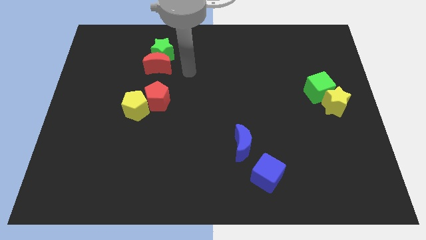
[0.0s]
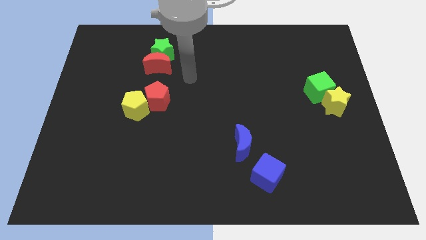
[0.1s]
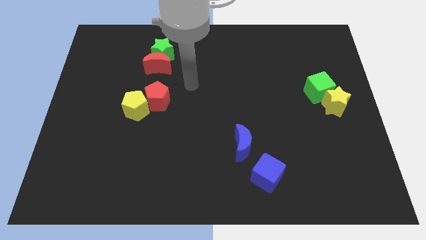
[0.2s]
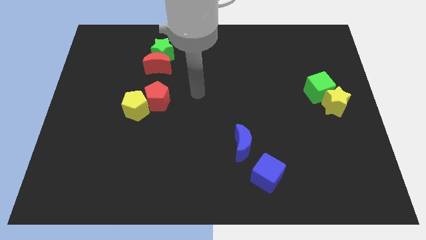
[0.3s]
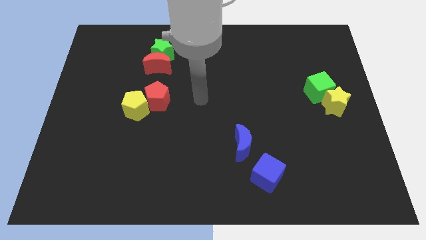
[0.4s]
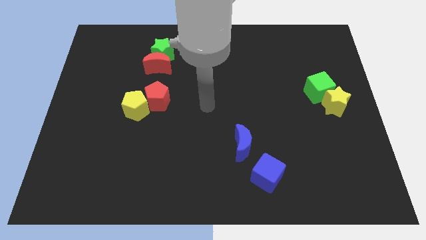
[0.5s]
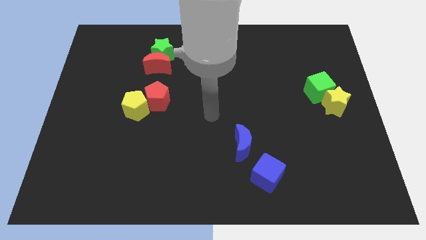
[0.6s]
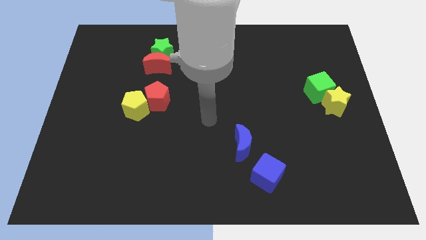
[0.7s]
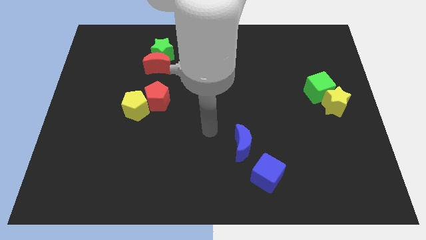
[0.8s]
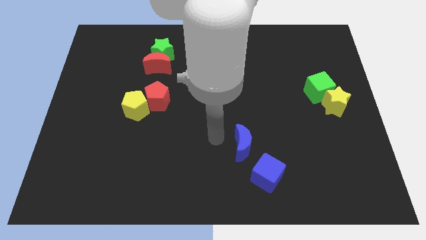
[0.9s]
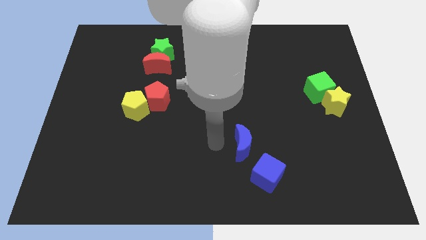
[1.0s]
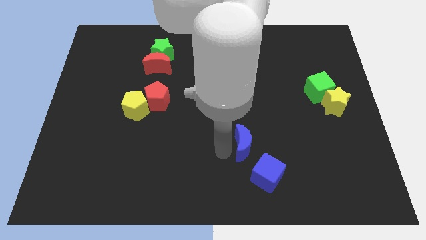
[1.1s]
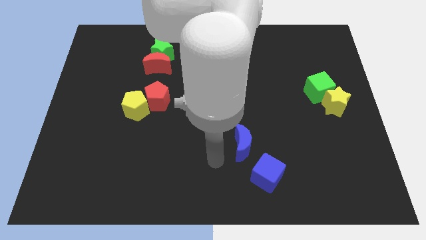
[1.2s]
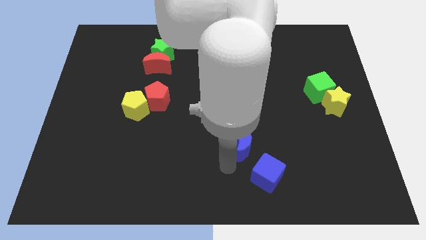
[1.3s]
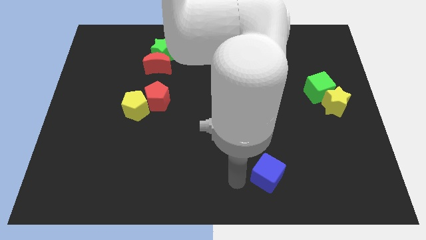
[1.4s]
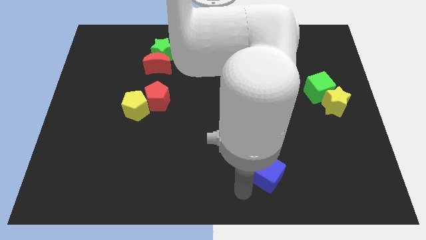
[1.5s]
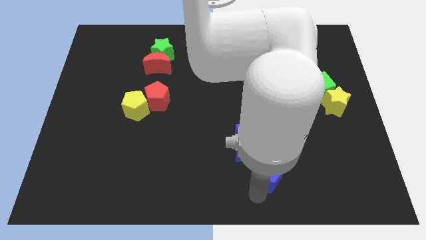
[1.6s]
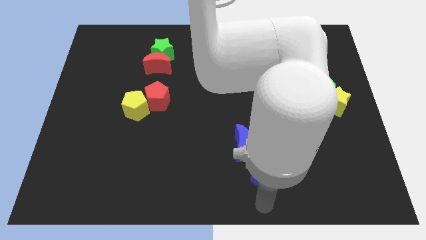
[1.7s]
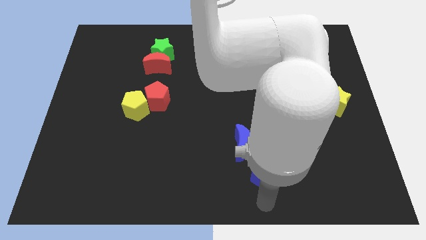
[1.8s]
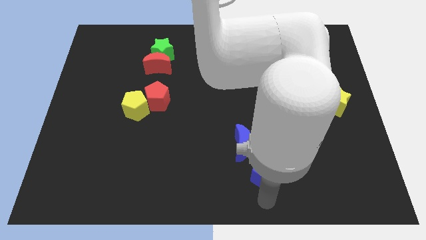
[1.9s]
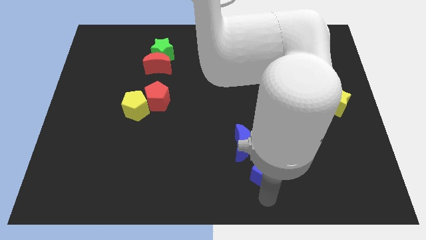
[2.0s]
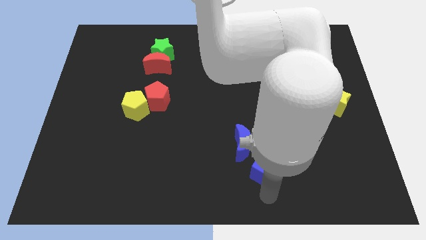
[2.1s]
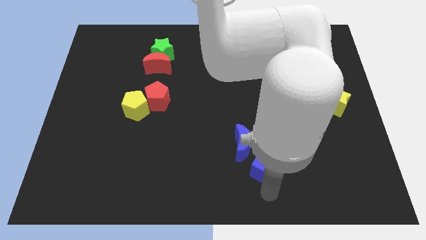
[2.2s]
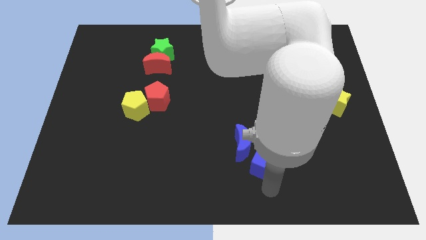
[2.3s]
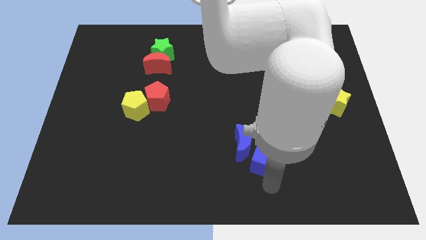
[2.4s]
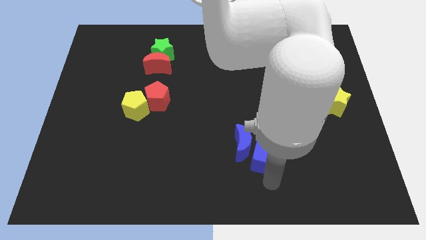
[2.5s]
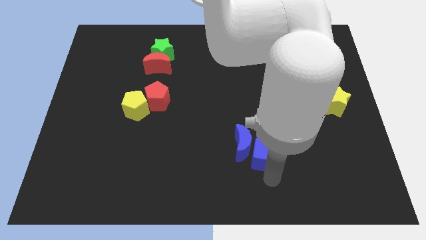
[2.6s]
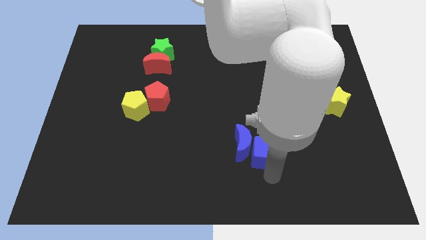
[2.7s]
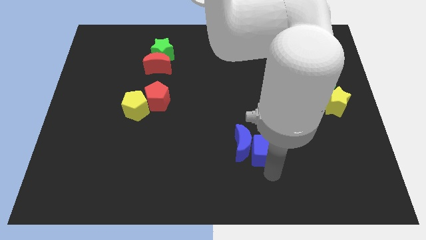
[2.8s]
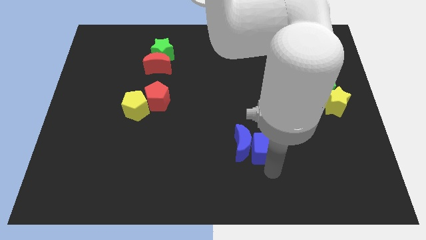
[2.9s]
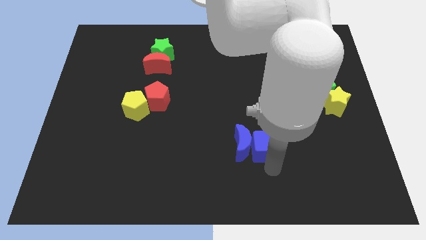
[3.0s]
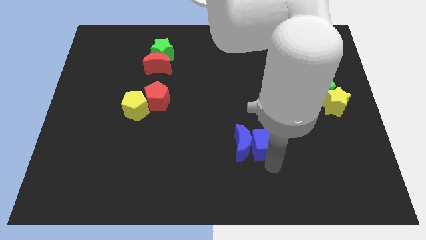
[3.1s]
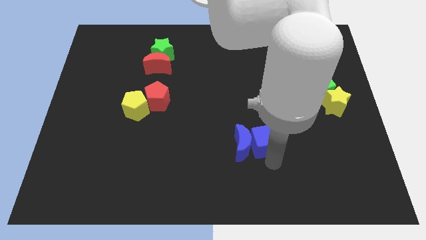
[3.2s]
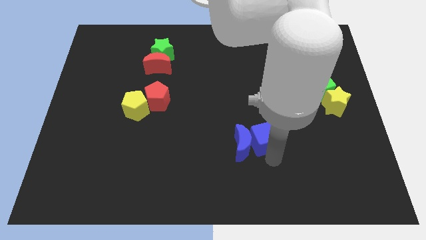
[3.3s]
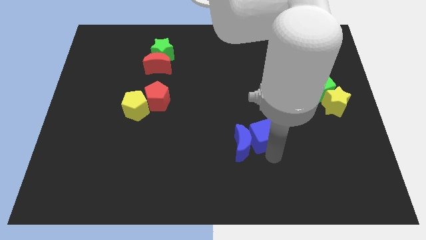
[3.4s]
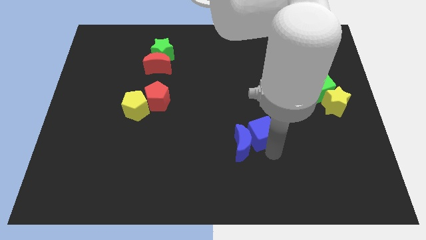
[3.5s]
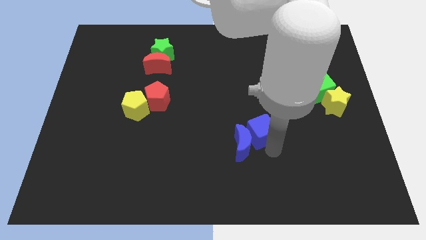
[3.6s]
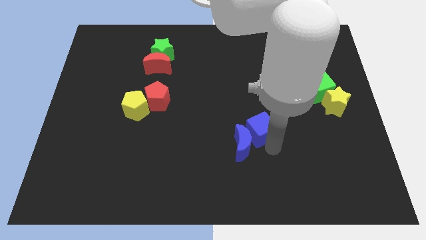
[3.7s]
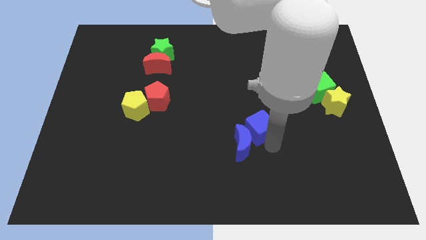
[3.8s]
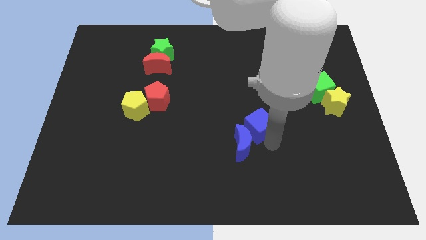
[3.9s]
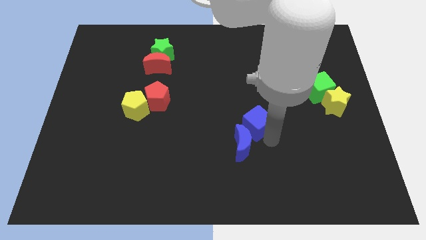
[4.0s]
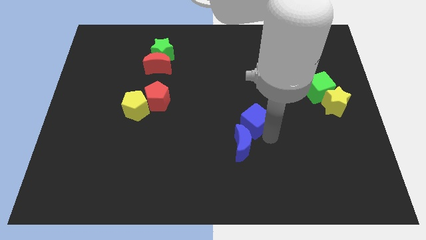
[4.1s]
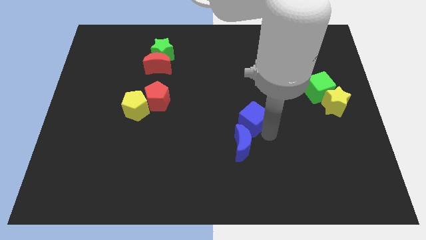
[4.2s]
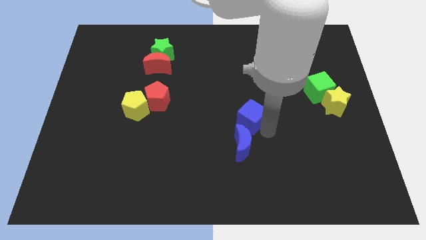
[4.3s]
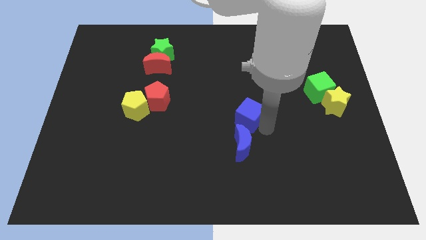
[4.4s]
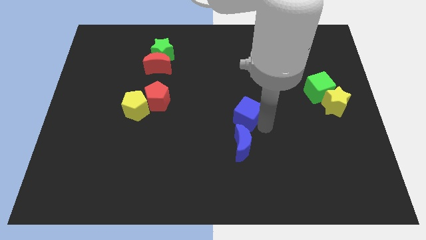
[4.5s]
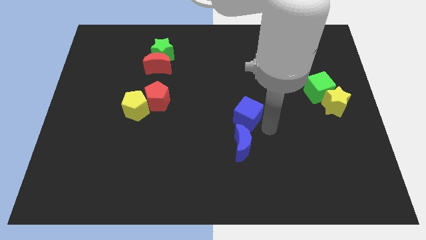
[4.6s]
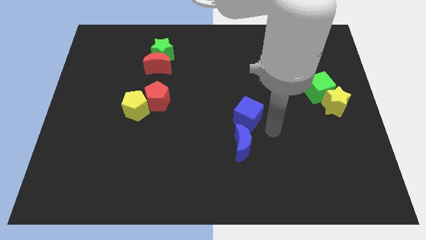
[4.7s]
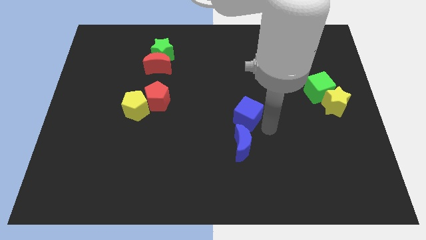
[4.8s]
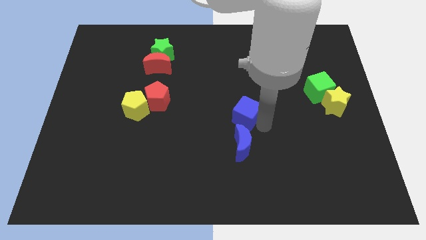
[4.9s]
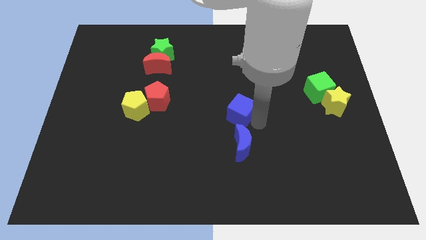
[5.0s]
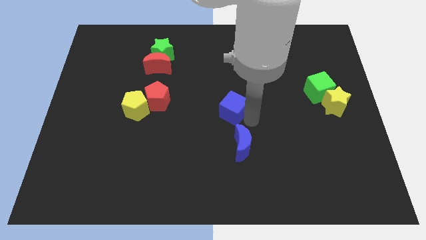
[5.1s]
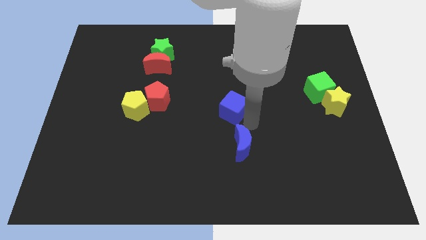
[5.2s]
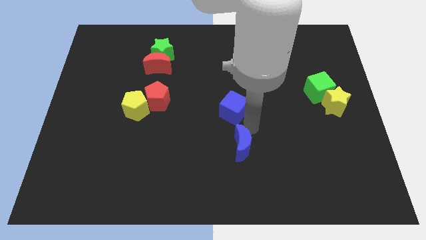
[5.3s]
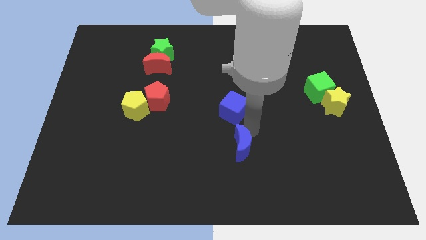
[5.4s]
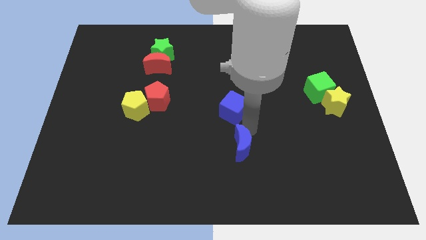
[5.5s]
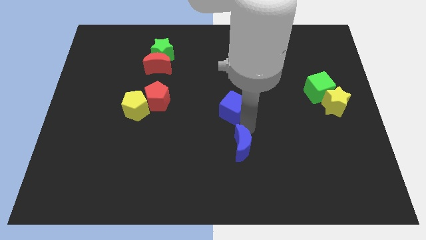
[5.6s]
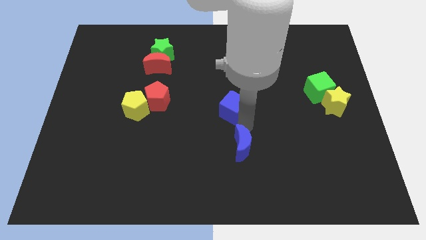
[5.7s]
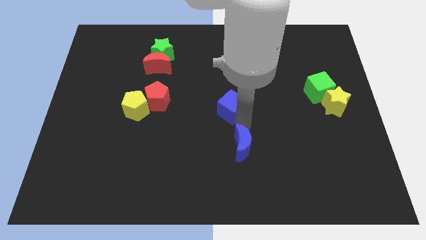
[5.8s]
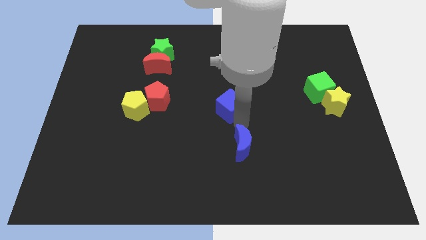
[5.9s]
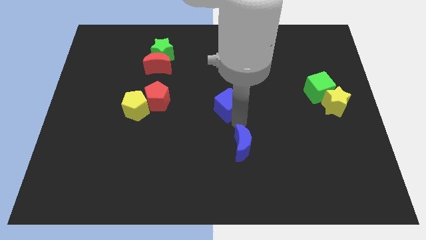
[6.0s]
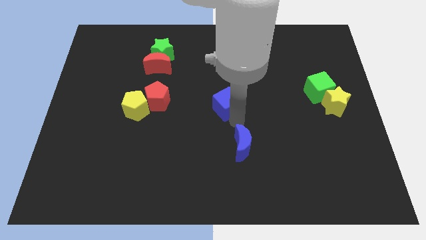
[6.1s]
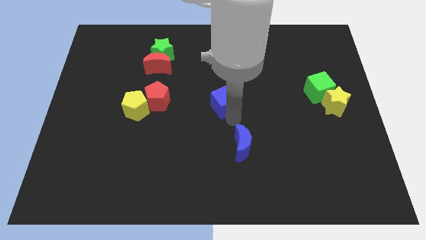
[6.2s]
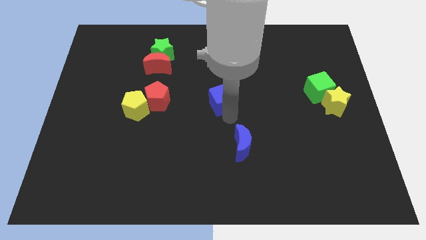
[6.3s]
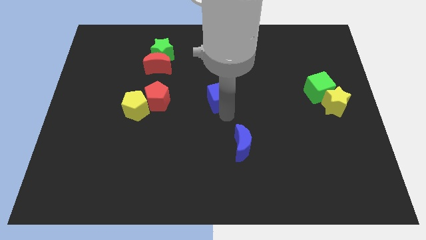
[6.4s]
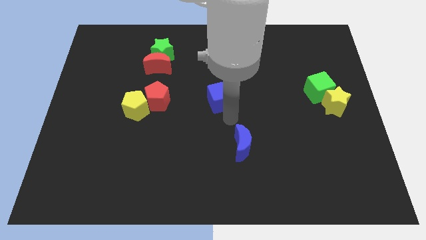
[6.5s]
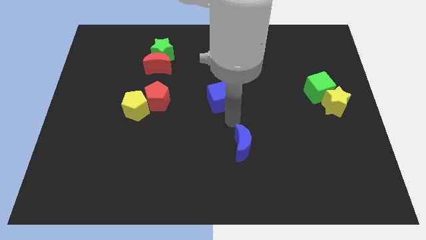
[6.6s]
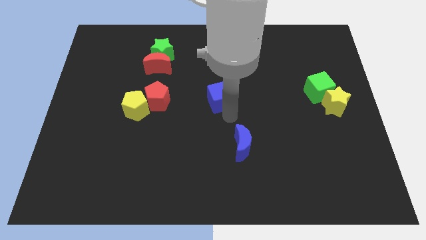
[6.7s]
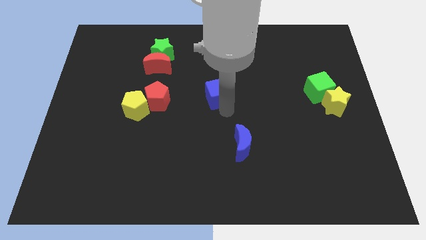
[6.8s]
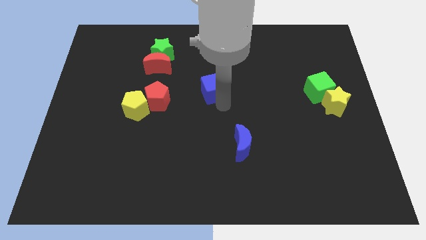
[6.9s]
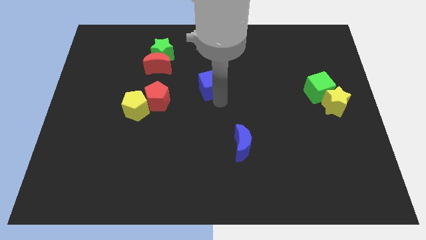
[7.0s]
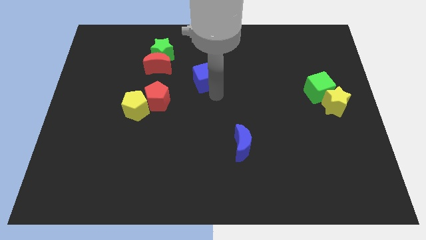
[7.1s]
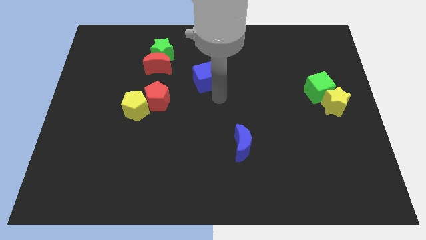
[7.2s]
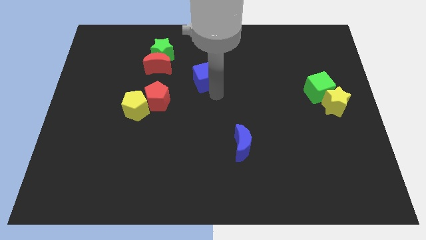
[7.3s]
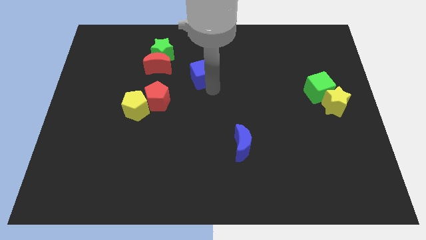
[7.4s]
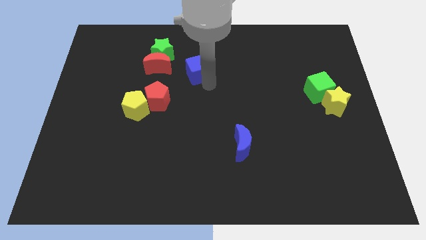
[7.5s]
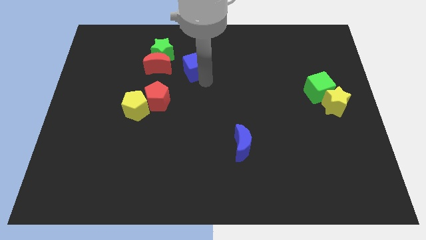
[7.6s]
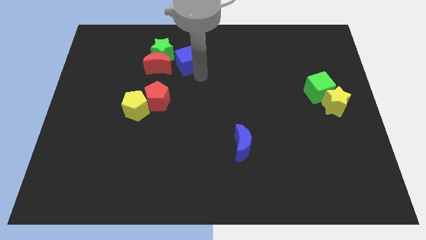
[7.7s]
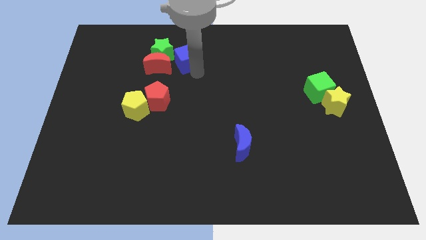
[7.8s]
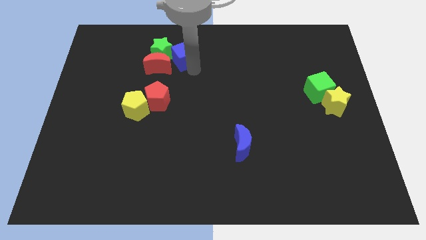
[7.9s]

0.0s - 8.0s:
put the blue cube close to the green star
